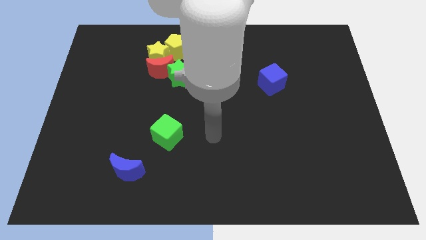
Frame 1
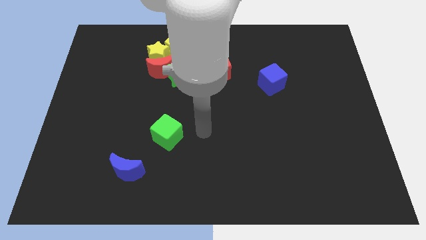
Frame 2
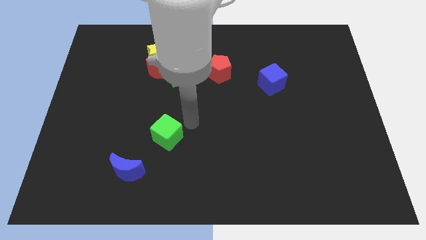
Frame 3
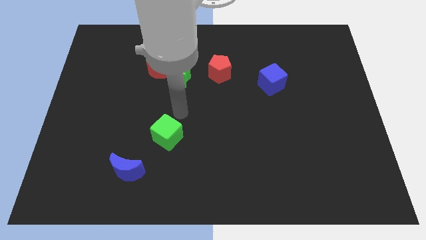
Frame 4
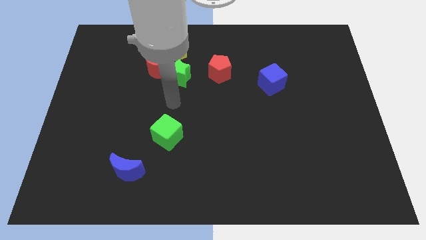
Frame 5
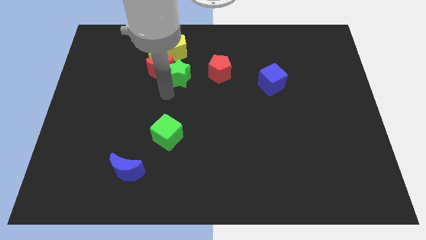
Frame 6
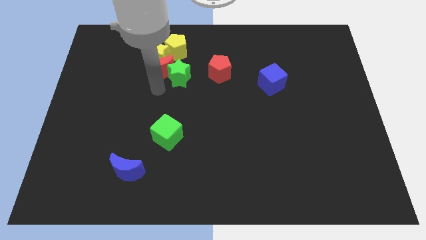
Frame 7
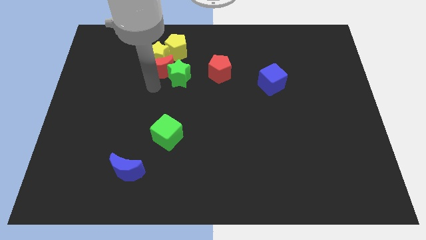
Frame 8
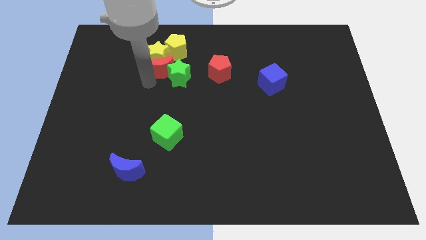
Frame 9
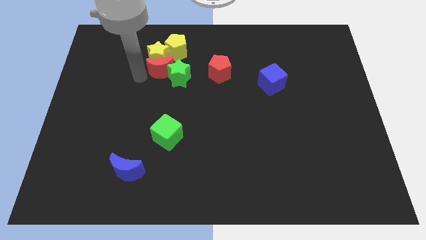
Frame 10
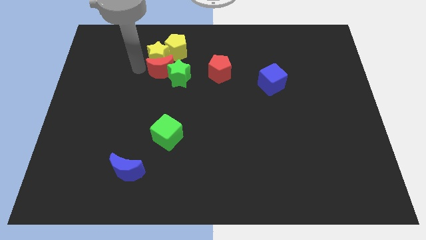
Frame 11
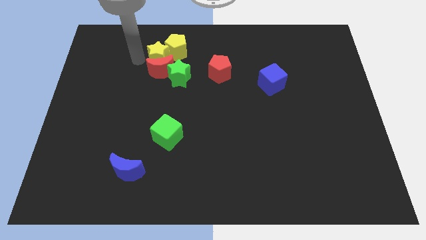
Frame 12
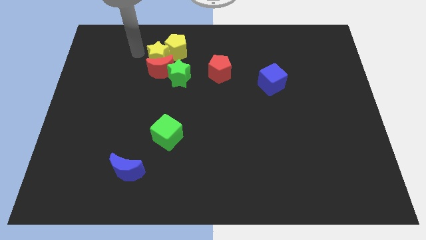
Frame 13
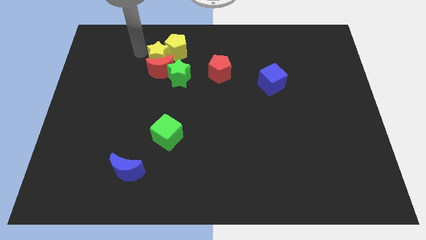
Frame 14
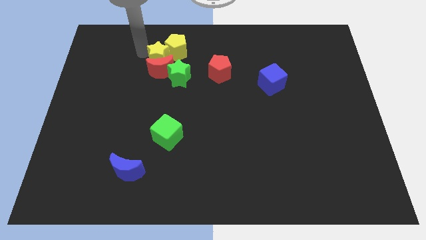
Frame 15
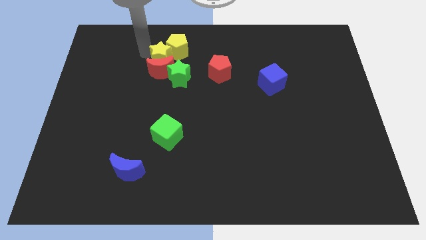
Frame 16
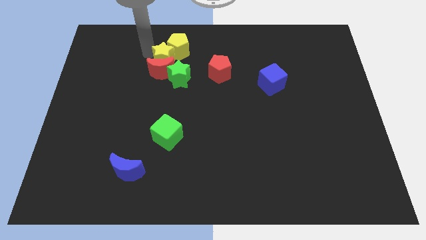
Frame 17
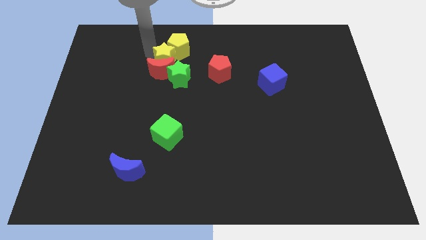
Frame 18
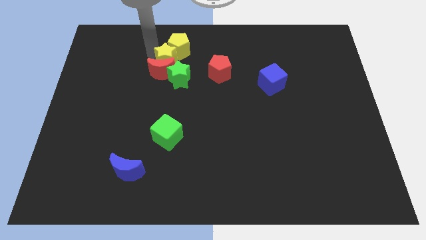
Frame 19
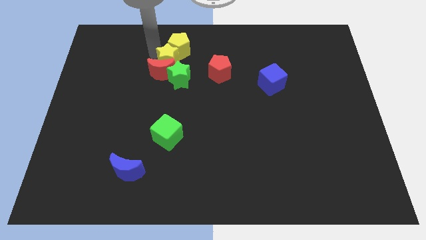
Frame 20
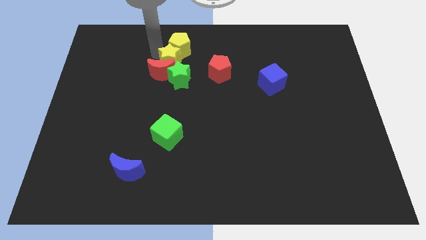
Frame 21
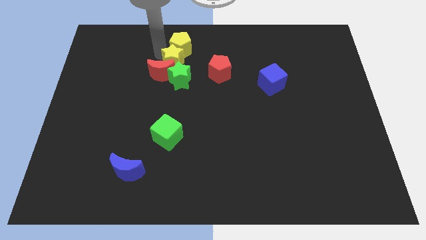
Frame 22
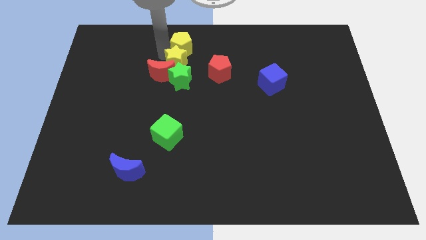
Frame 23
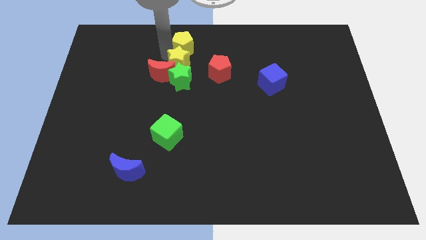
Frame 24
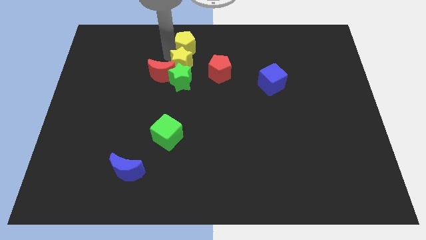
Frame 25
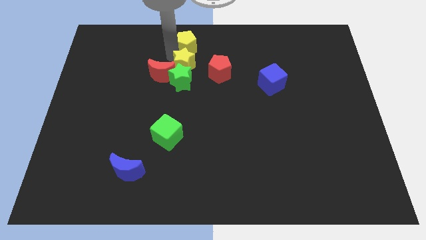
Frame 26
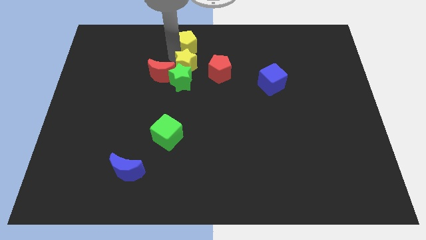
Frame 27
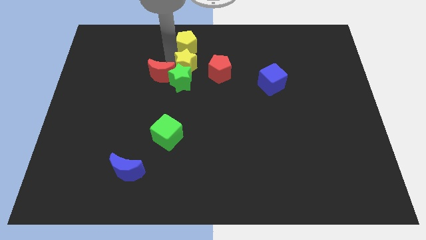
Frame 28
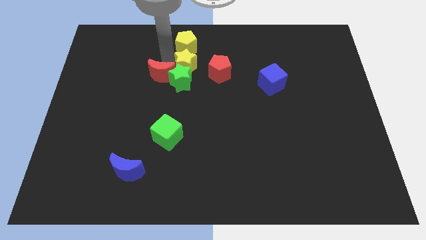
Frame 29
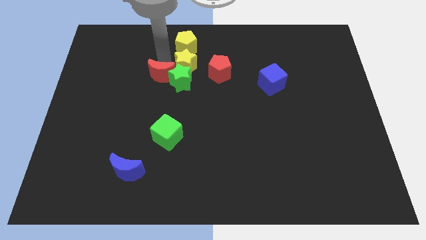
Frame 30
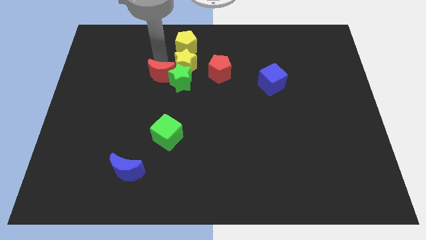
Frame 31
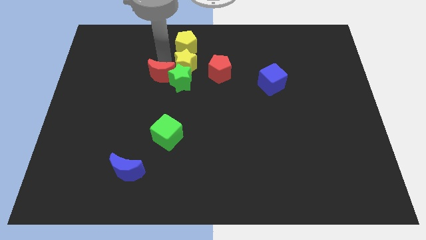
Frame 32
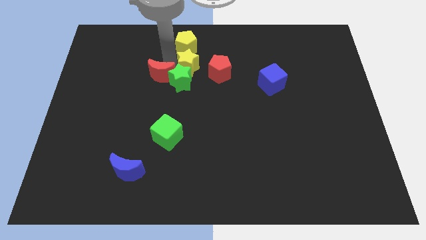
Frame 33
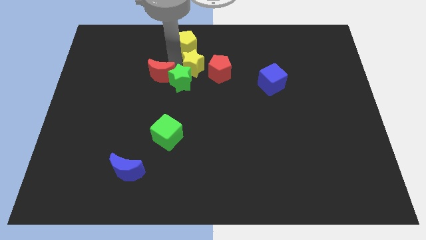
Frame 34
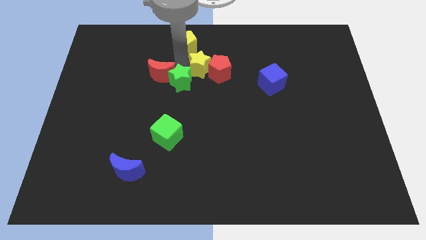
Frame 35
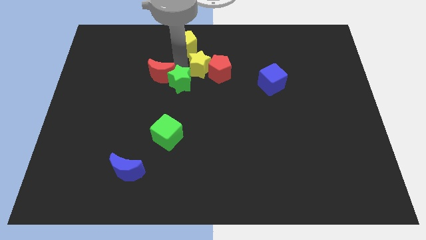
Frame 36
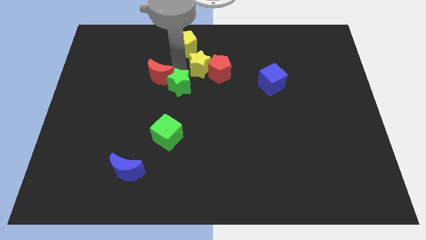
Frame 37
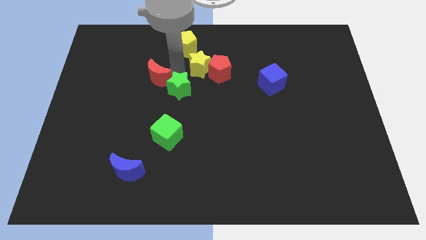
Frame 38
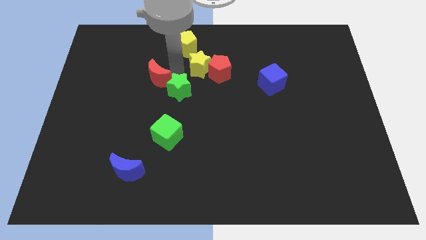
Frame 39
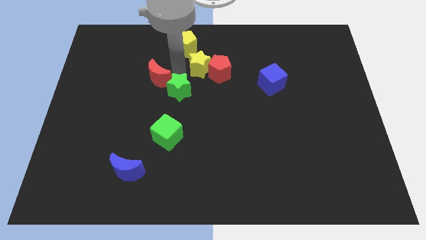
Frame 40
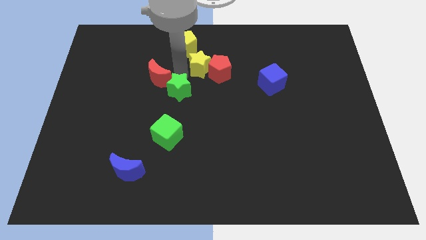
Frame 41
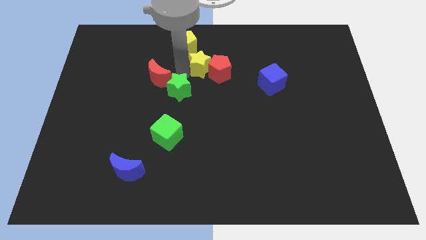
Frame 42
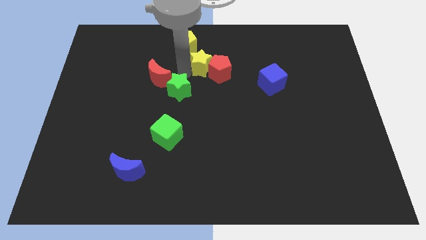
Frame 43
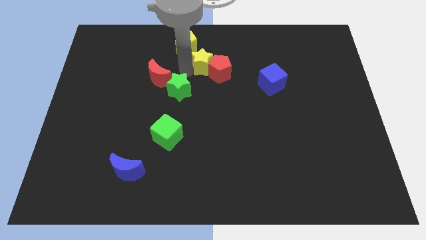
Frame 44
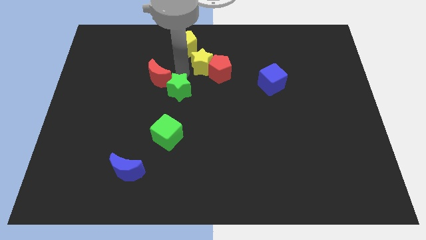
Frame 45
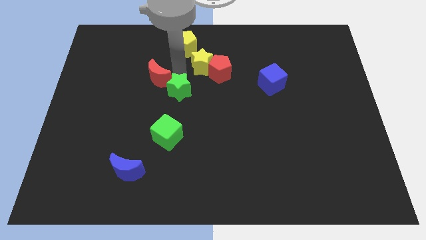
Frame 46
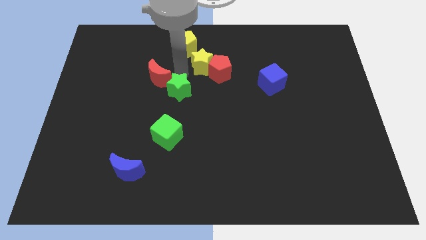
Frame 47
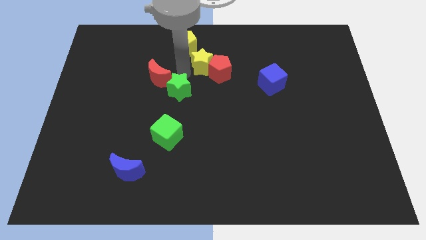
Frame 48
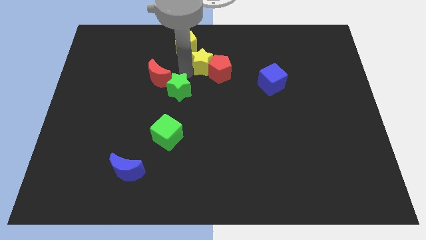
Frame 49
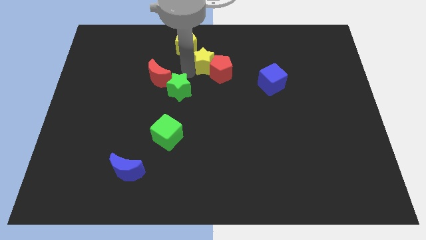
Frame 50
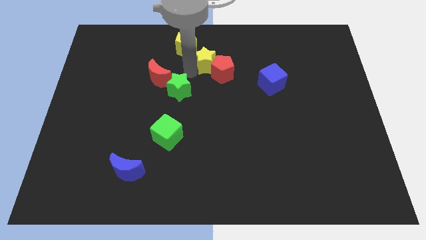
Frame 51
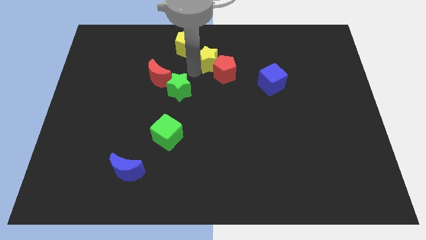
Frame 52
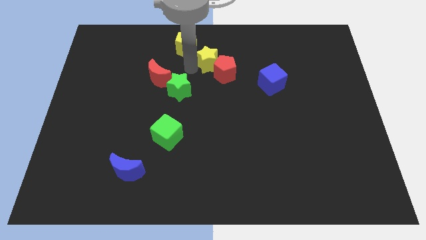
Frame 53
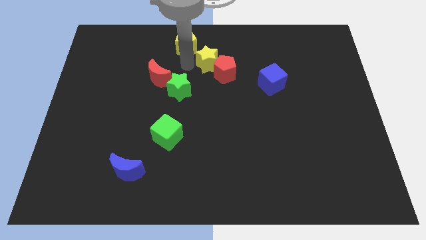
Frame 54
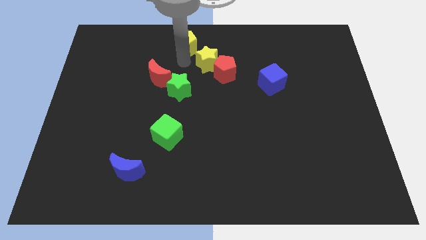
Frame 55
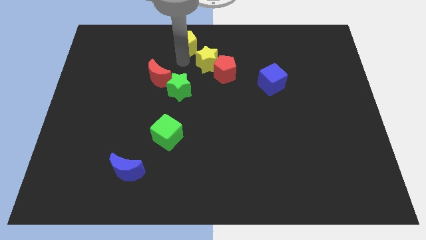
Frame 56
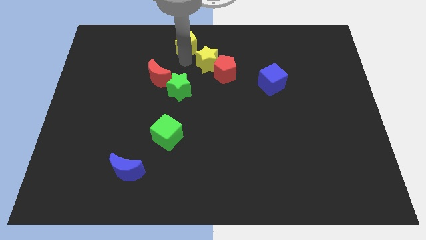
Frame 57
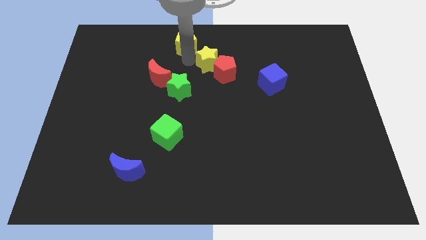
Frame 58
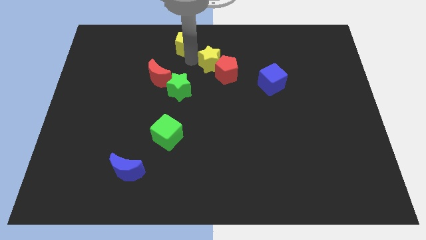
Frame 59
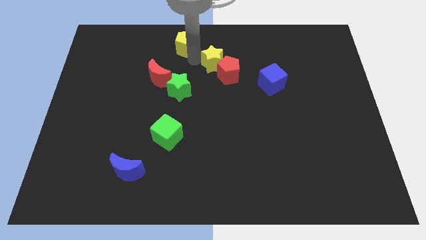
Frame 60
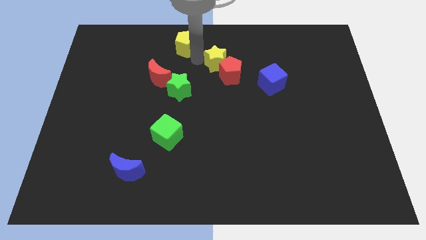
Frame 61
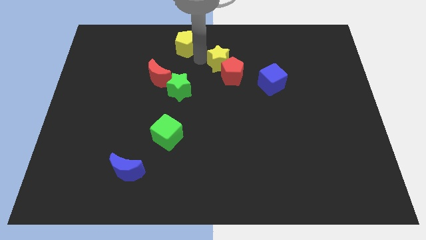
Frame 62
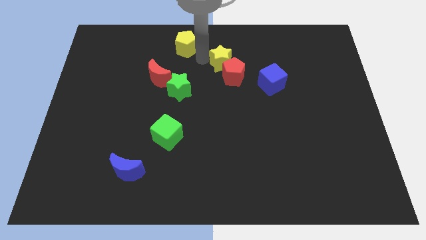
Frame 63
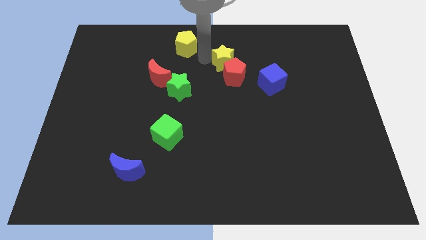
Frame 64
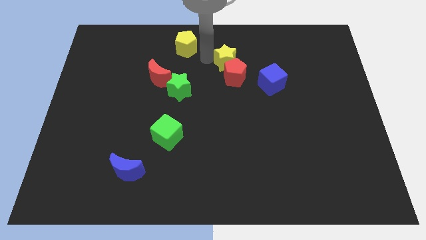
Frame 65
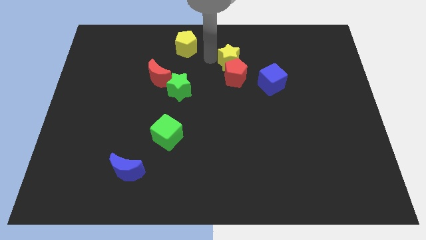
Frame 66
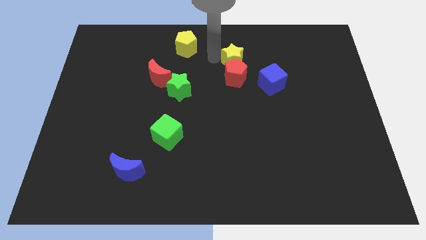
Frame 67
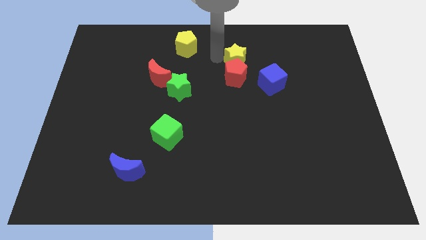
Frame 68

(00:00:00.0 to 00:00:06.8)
push the yellow star right

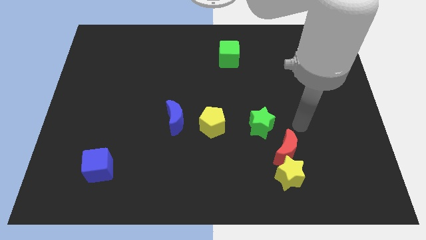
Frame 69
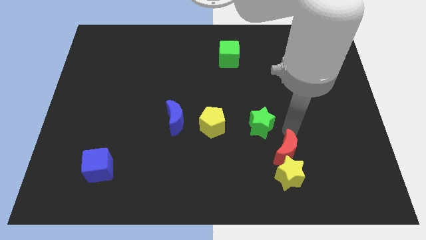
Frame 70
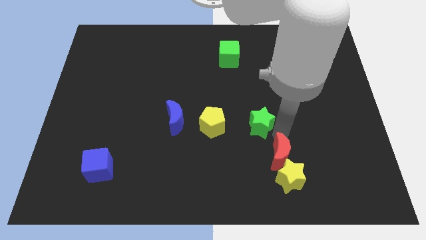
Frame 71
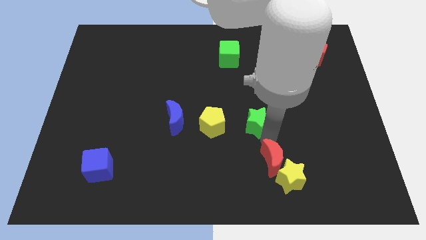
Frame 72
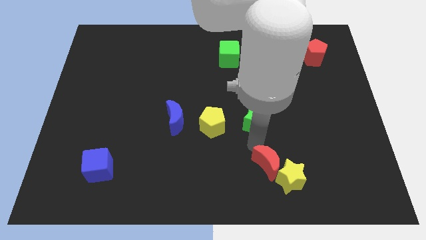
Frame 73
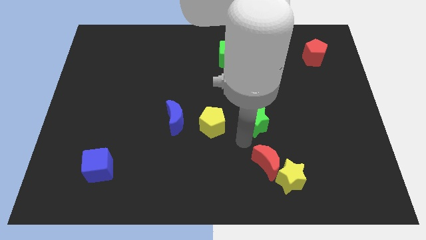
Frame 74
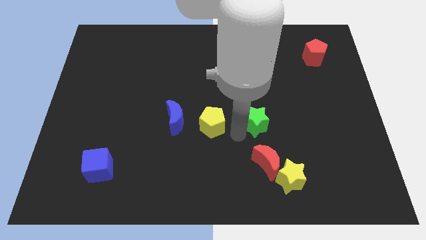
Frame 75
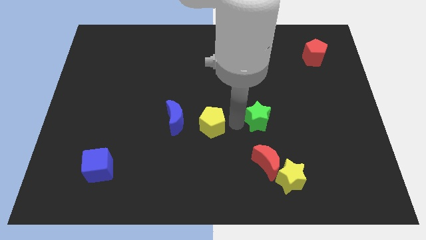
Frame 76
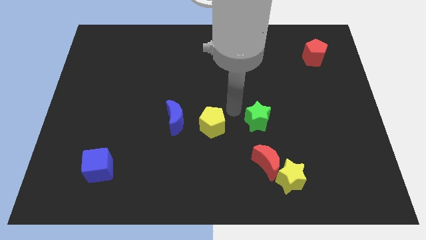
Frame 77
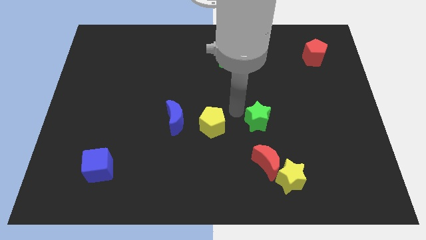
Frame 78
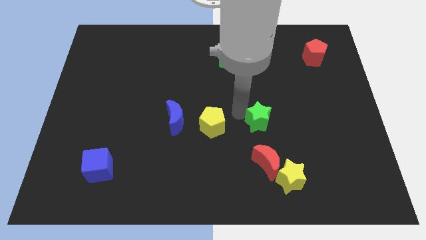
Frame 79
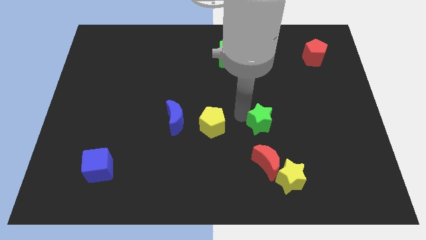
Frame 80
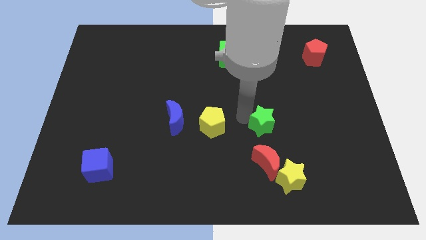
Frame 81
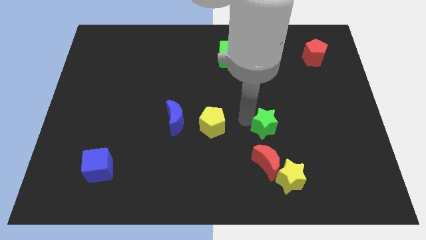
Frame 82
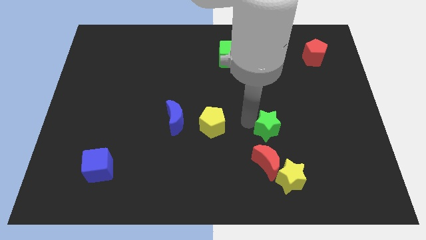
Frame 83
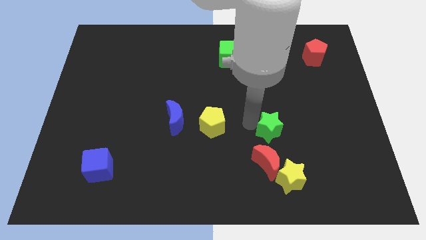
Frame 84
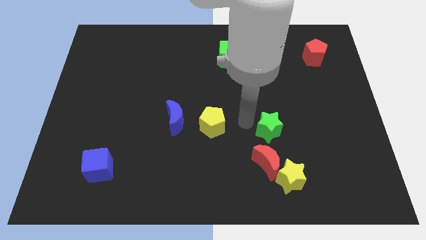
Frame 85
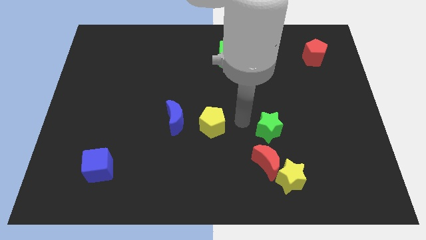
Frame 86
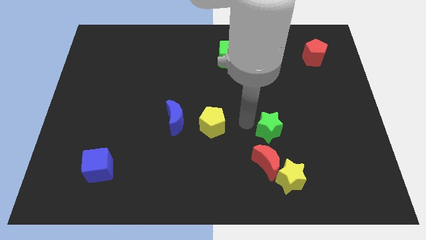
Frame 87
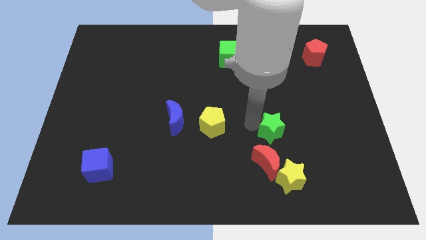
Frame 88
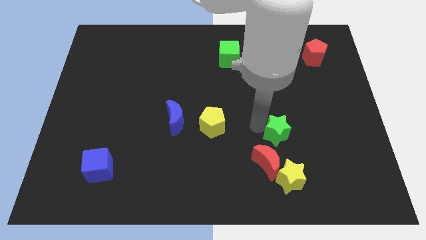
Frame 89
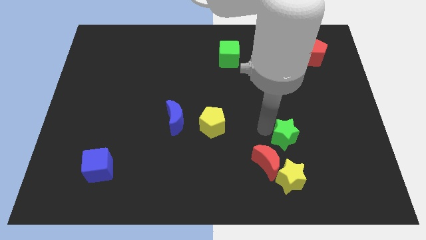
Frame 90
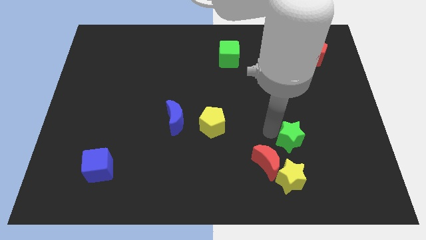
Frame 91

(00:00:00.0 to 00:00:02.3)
slightly slide the green star diagonally downwards and right
